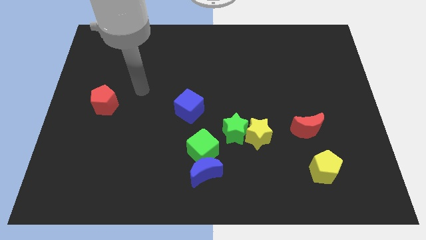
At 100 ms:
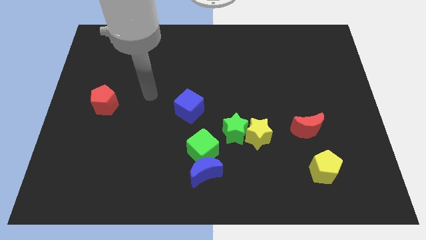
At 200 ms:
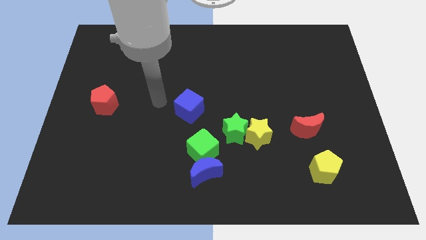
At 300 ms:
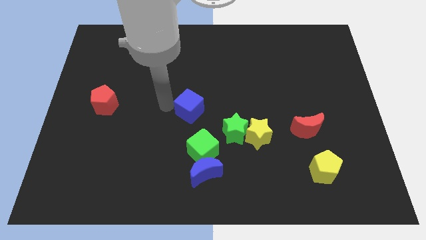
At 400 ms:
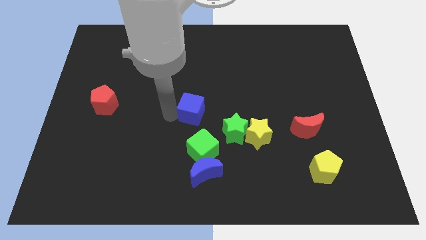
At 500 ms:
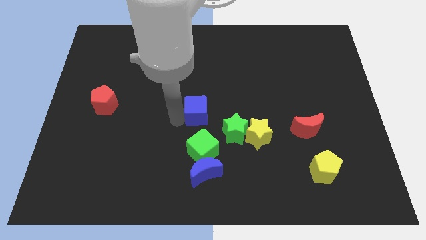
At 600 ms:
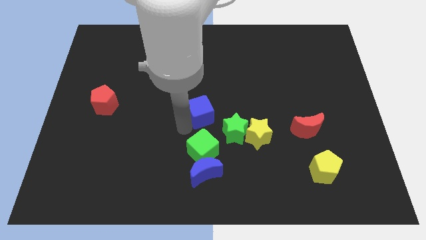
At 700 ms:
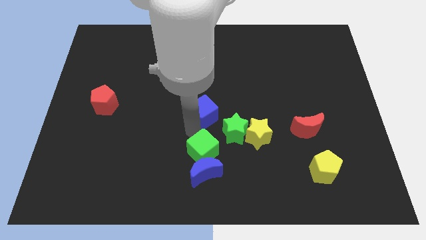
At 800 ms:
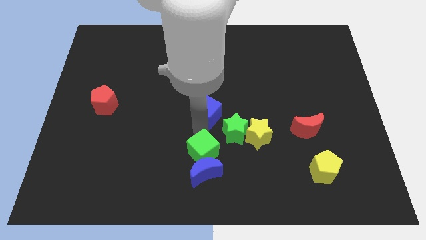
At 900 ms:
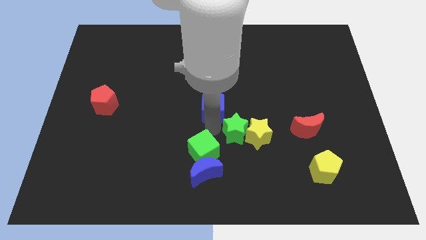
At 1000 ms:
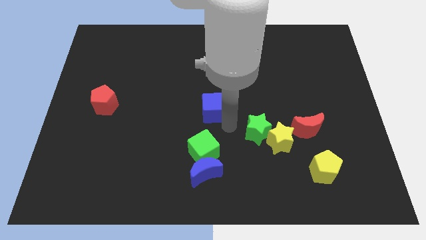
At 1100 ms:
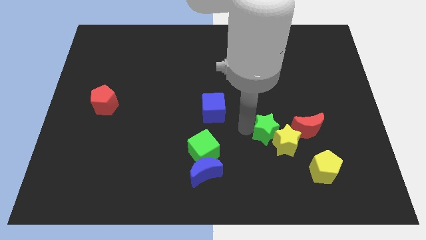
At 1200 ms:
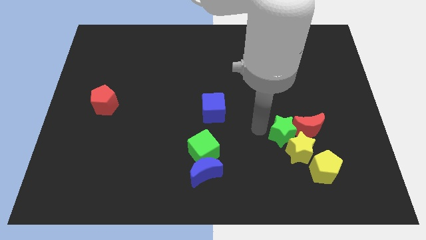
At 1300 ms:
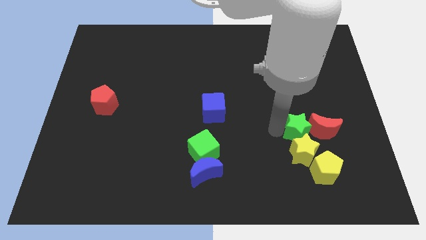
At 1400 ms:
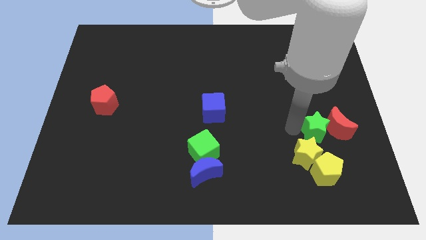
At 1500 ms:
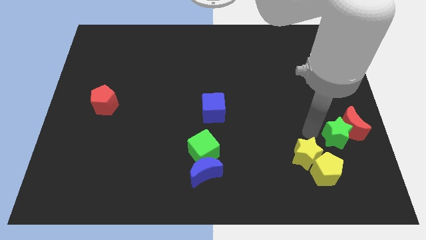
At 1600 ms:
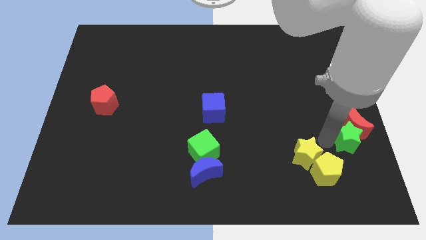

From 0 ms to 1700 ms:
separate the yellow star from the green star

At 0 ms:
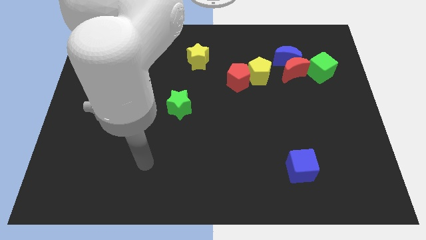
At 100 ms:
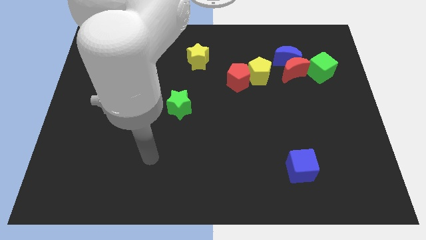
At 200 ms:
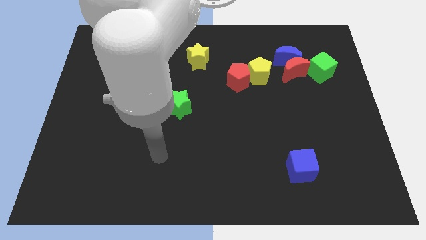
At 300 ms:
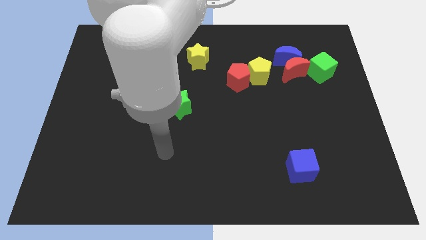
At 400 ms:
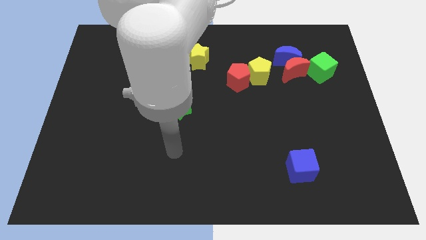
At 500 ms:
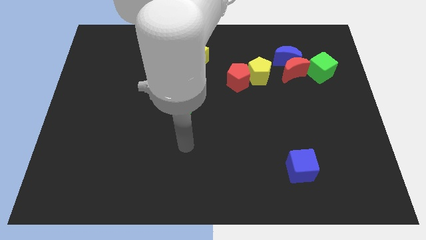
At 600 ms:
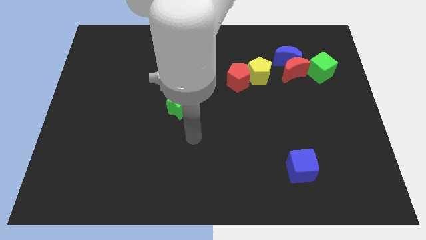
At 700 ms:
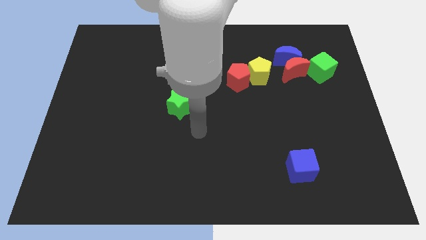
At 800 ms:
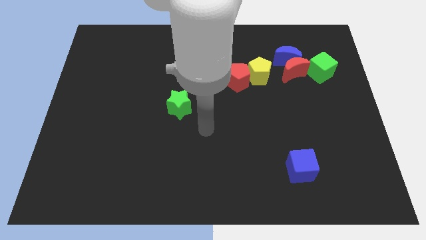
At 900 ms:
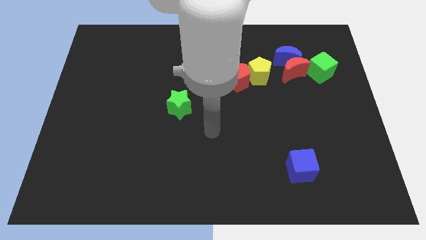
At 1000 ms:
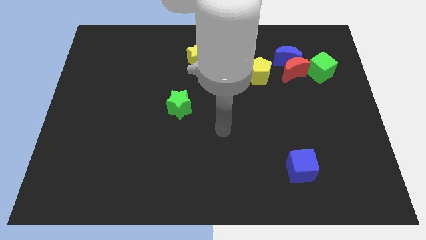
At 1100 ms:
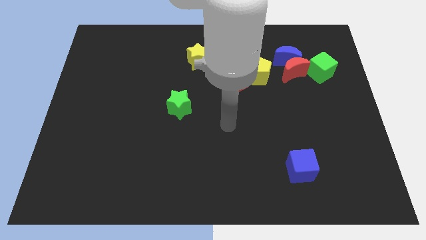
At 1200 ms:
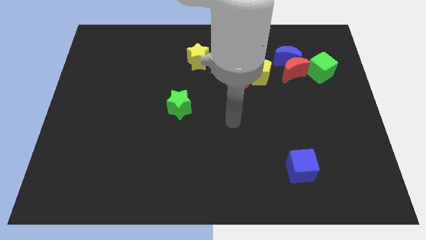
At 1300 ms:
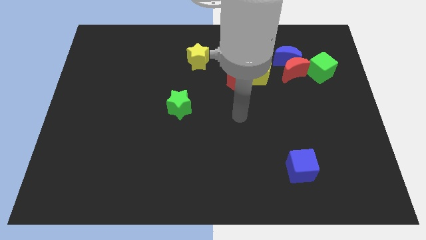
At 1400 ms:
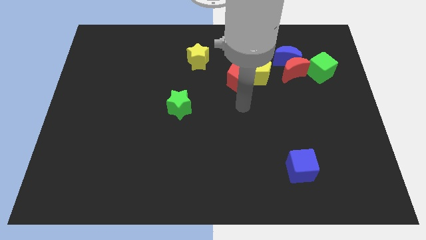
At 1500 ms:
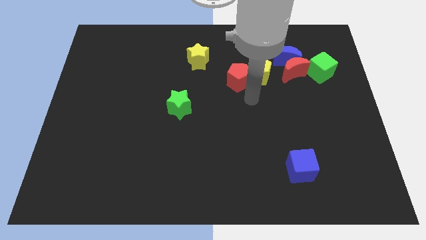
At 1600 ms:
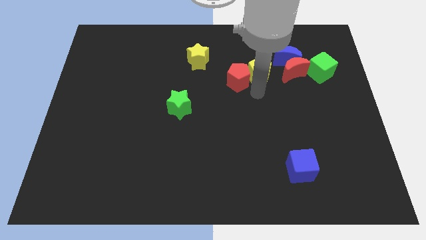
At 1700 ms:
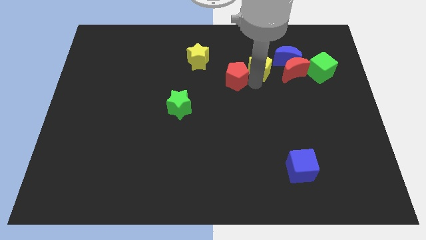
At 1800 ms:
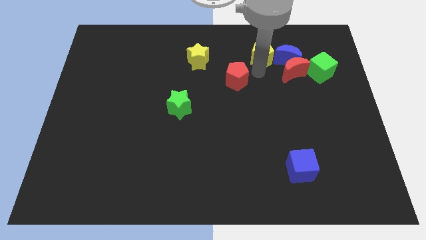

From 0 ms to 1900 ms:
pull the red pentagon apart from the yellow pentagon

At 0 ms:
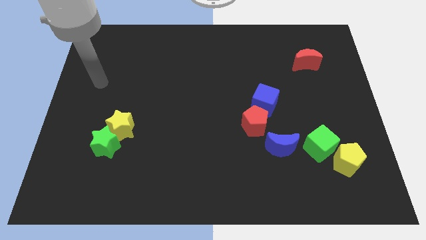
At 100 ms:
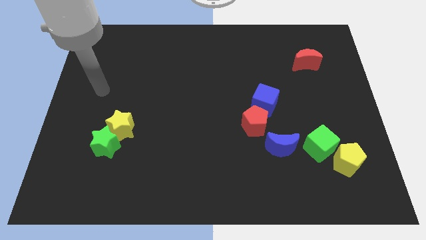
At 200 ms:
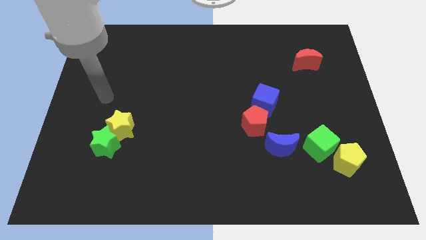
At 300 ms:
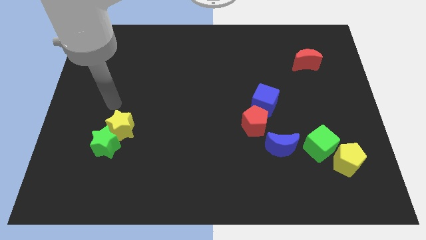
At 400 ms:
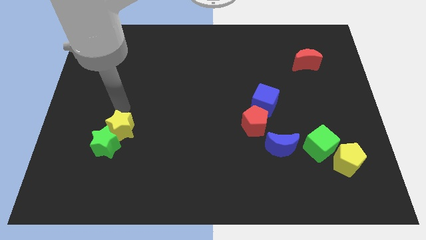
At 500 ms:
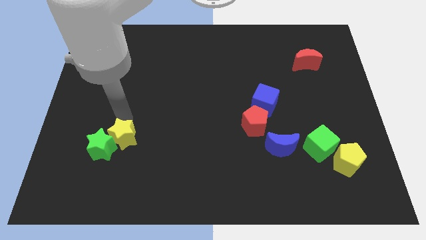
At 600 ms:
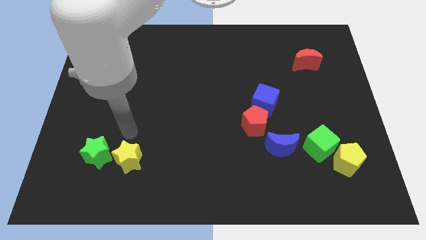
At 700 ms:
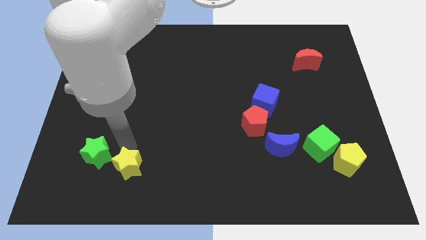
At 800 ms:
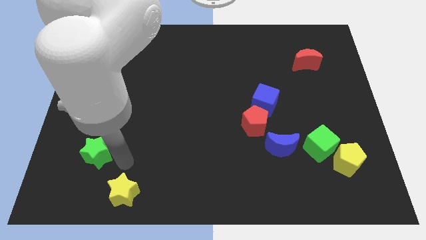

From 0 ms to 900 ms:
separate the green star from the yellow star

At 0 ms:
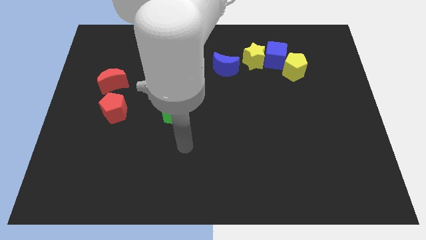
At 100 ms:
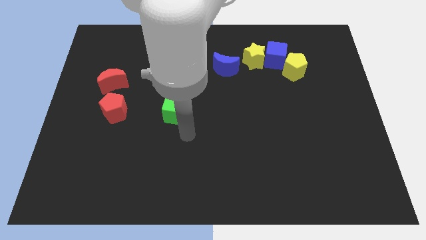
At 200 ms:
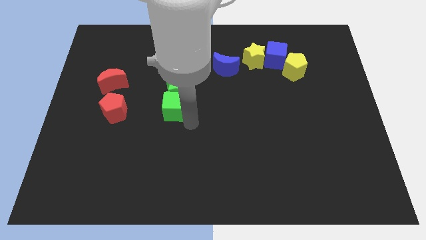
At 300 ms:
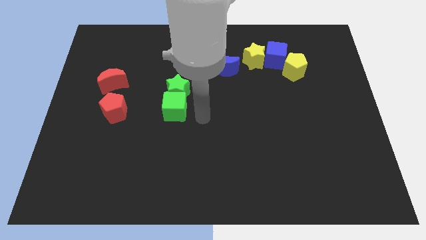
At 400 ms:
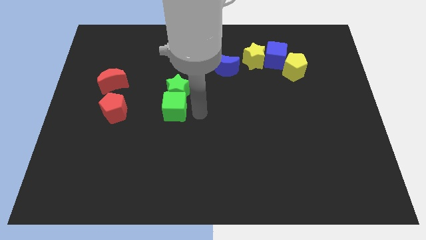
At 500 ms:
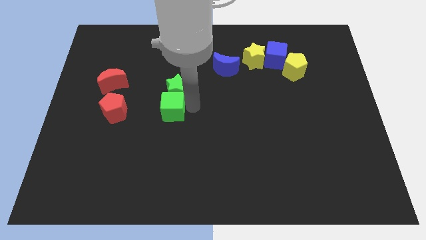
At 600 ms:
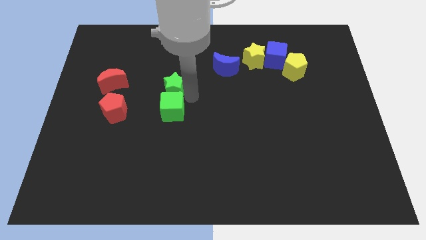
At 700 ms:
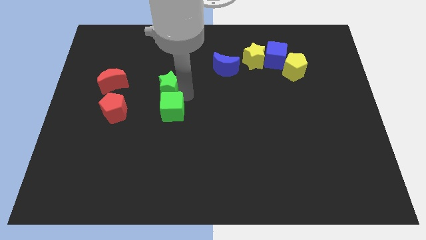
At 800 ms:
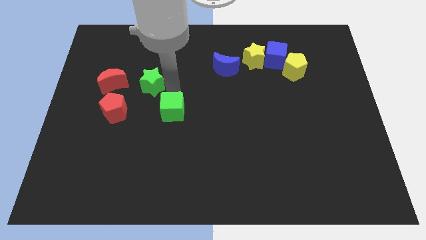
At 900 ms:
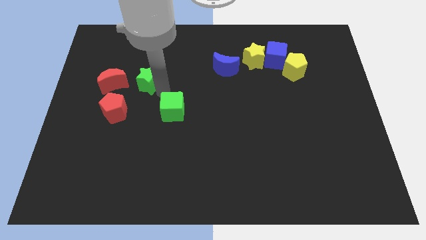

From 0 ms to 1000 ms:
move the green cube away from the green star

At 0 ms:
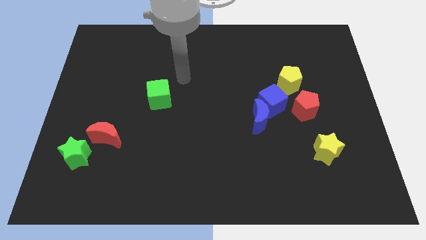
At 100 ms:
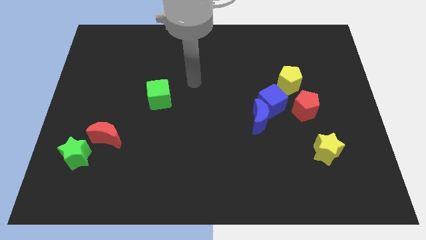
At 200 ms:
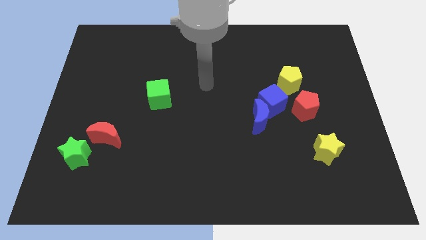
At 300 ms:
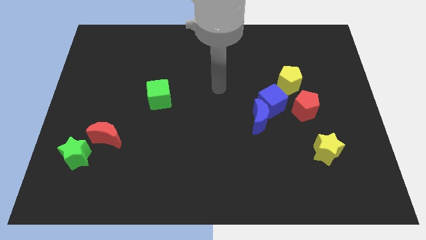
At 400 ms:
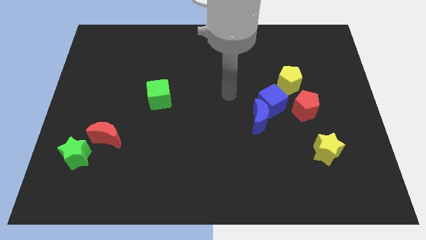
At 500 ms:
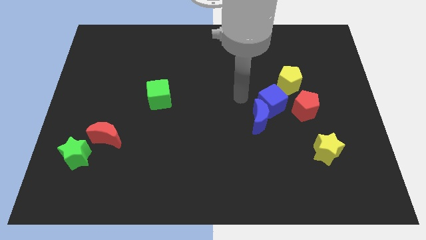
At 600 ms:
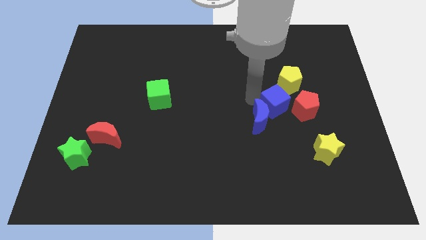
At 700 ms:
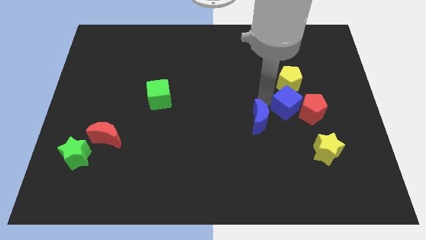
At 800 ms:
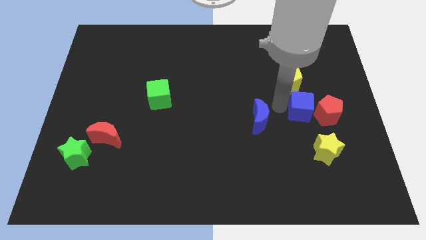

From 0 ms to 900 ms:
separate the blue moon from the blue cube

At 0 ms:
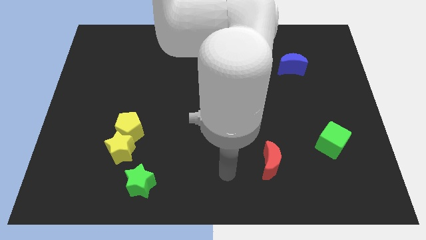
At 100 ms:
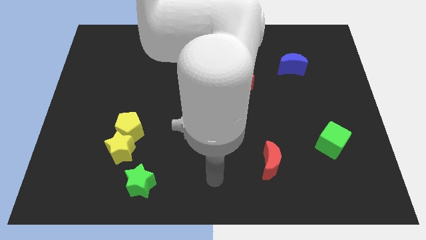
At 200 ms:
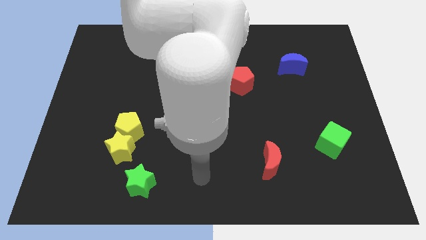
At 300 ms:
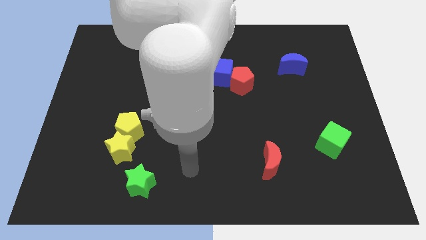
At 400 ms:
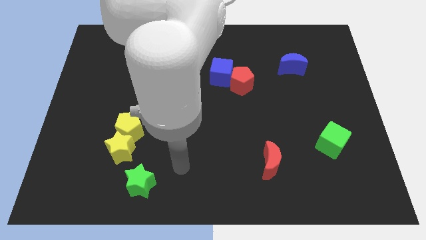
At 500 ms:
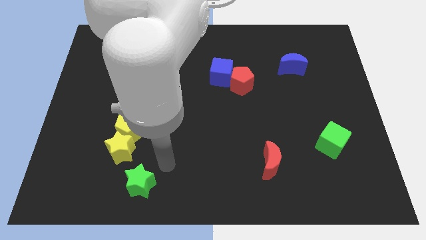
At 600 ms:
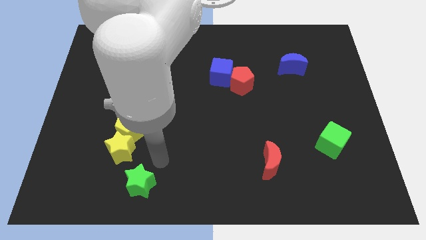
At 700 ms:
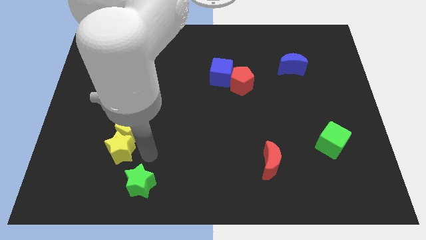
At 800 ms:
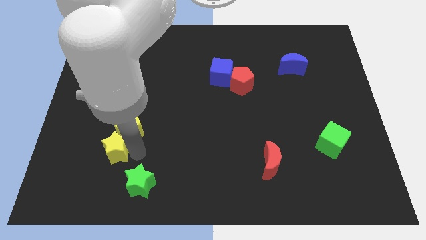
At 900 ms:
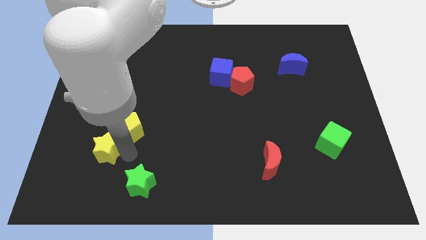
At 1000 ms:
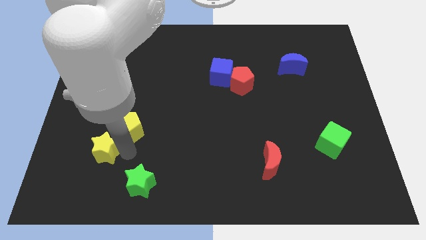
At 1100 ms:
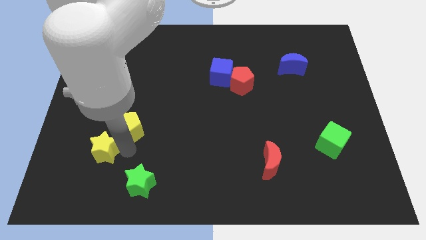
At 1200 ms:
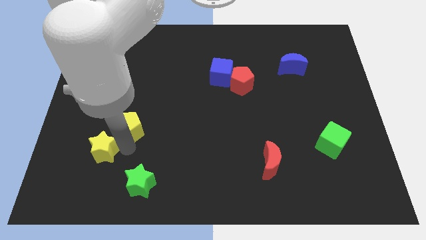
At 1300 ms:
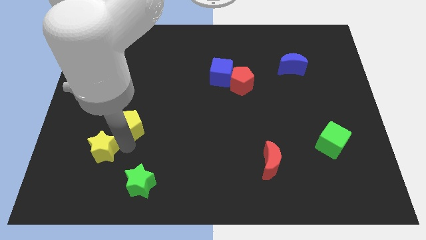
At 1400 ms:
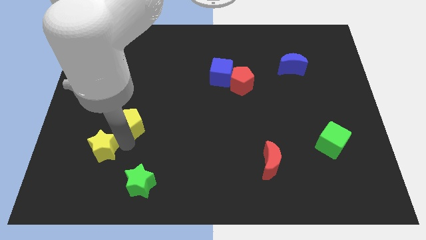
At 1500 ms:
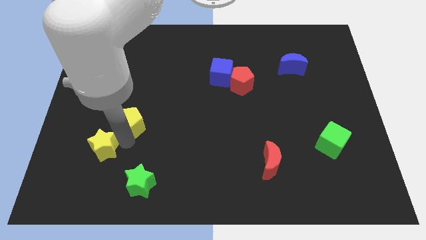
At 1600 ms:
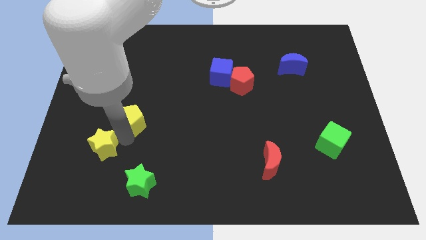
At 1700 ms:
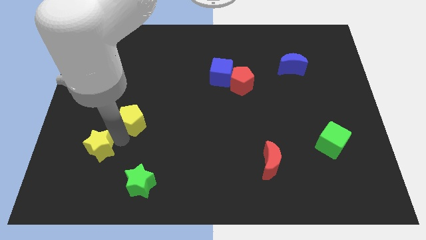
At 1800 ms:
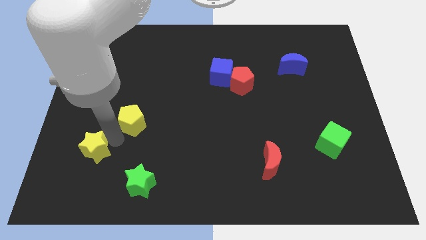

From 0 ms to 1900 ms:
separate the yellow pentagon from the yellow star

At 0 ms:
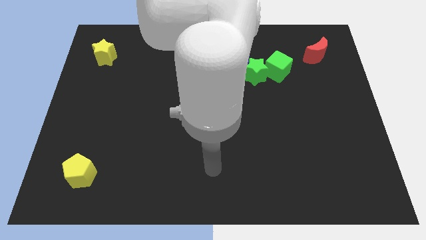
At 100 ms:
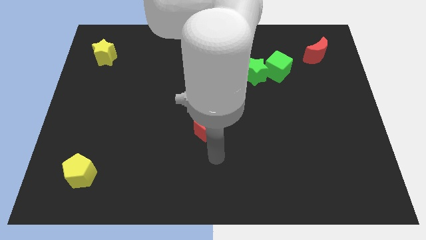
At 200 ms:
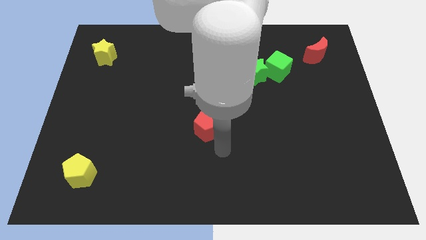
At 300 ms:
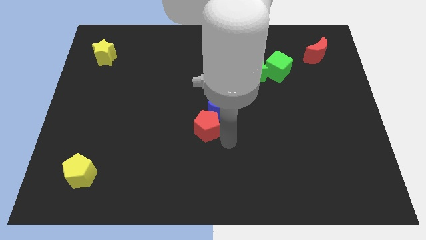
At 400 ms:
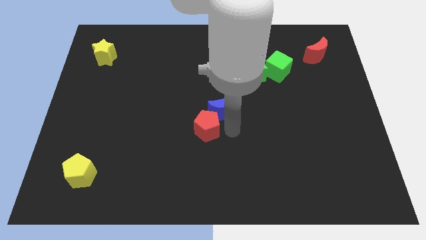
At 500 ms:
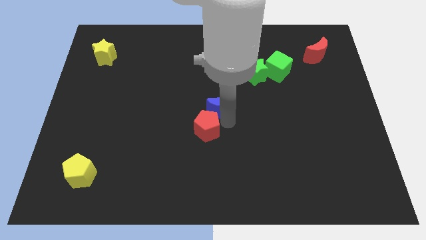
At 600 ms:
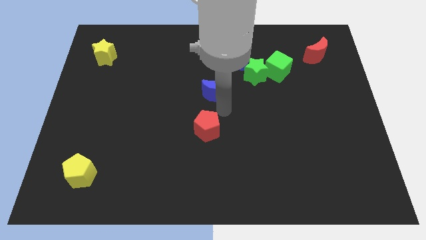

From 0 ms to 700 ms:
separate the red pentagon from the blue moon

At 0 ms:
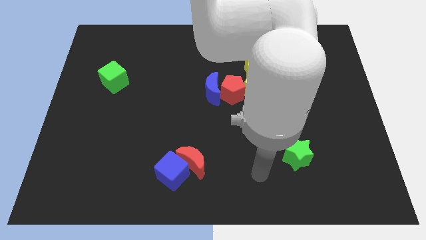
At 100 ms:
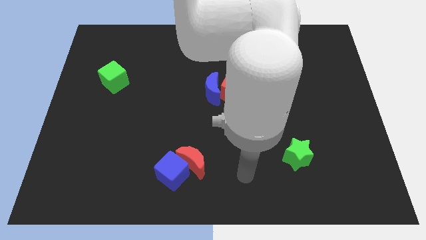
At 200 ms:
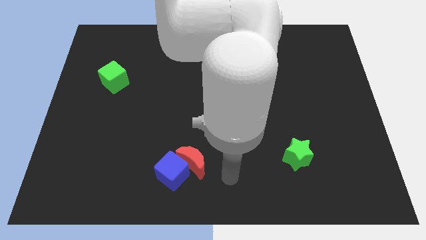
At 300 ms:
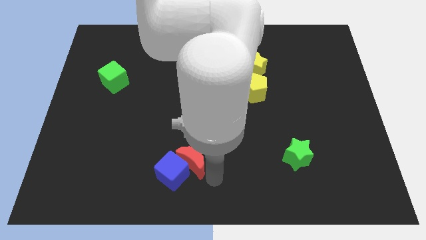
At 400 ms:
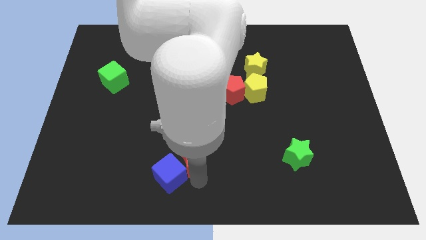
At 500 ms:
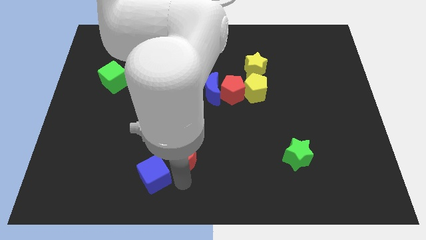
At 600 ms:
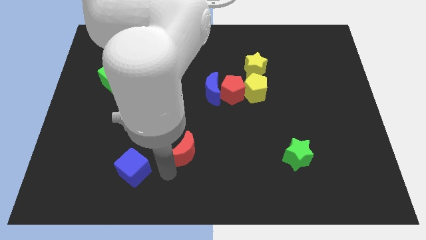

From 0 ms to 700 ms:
move the red moon away from the blue cube
